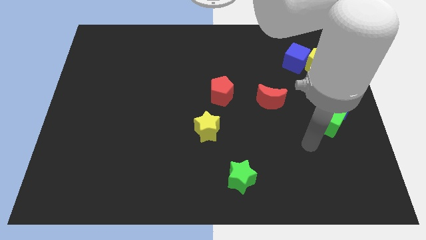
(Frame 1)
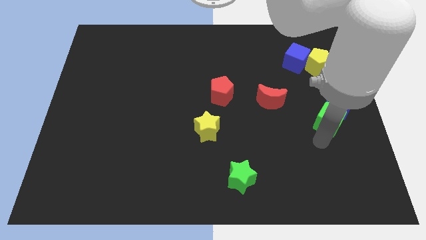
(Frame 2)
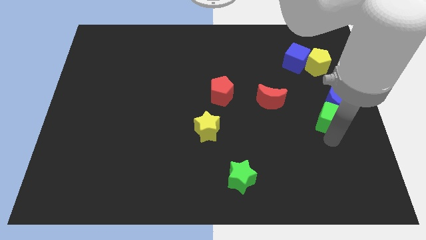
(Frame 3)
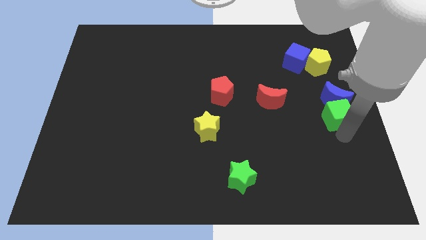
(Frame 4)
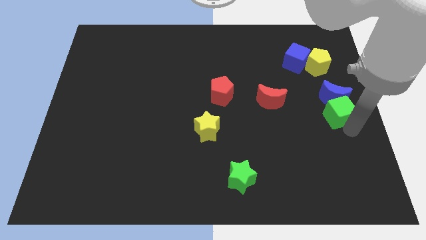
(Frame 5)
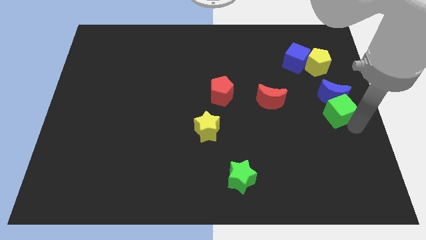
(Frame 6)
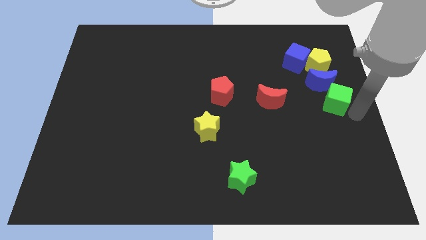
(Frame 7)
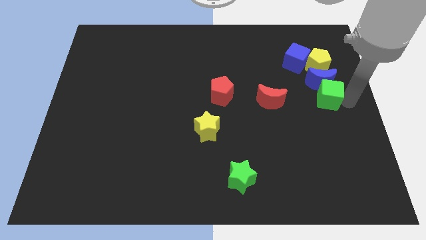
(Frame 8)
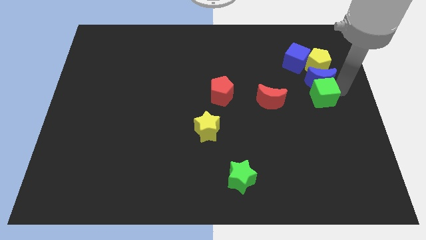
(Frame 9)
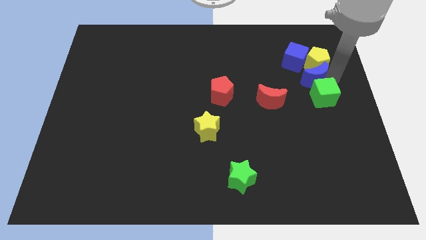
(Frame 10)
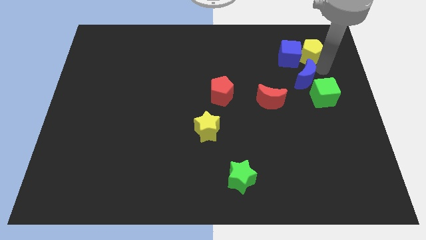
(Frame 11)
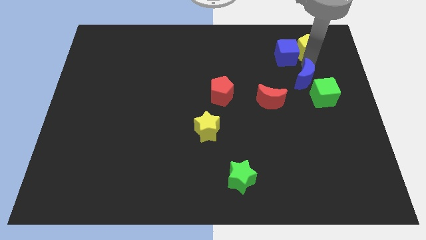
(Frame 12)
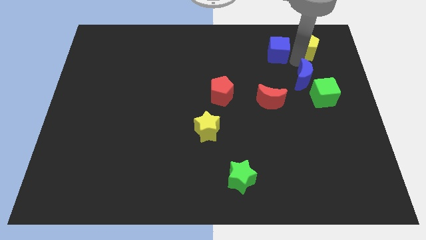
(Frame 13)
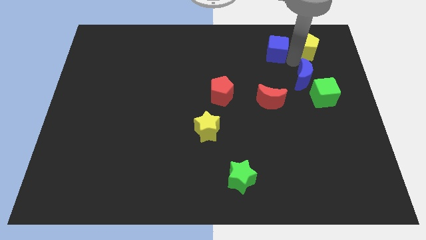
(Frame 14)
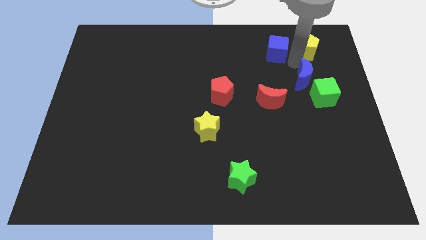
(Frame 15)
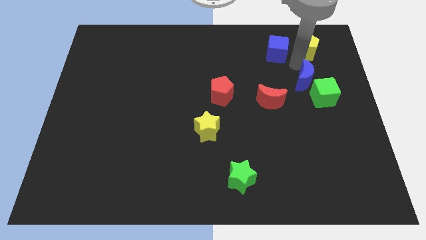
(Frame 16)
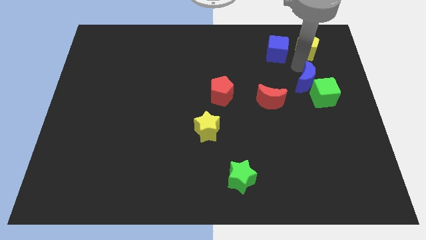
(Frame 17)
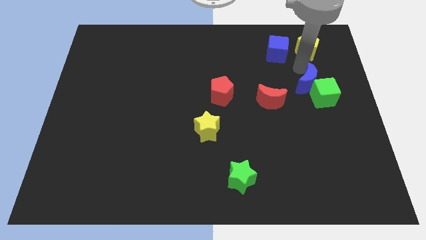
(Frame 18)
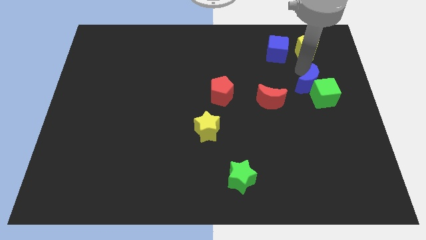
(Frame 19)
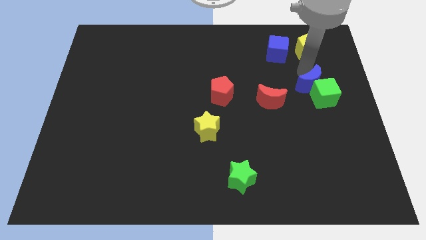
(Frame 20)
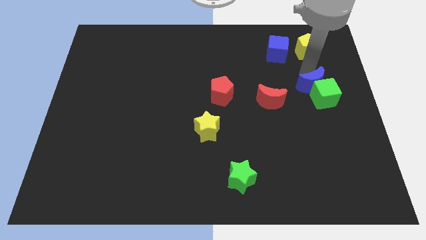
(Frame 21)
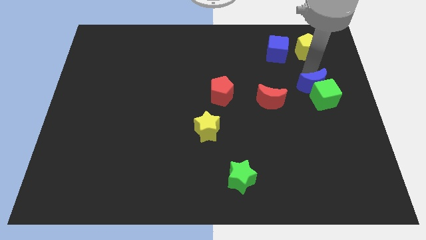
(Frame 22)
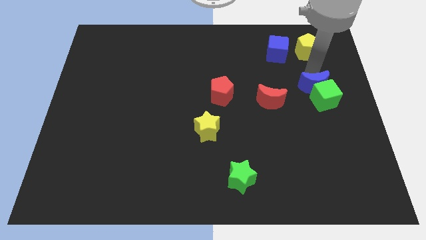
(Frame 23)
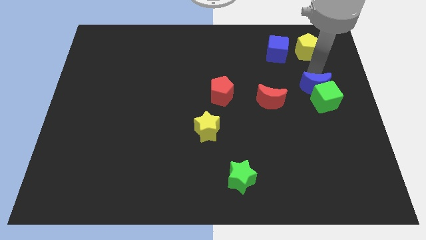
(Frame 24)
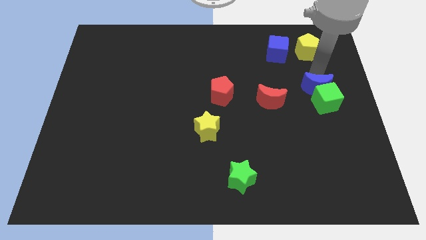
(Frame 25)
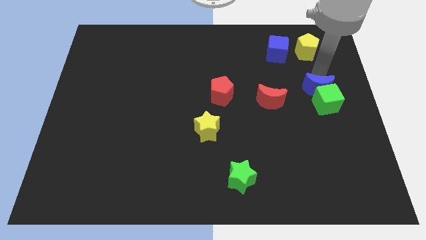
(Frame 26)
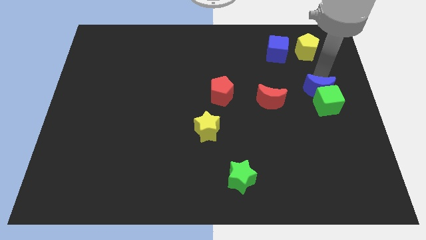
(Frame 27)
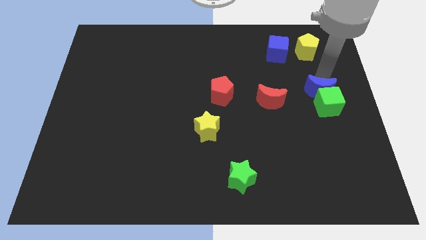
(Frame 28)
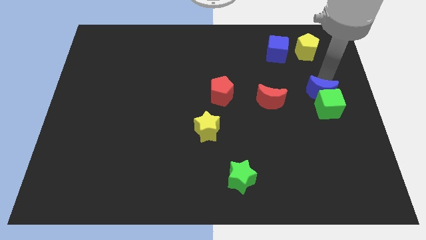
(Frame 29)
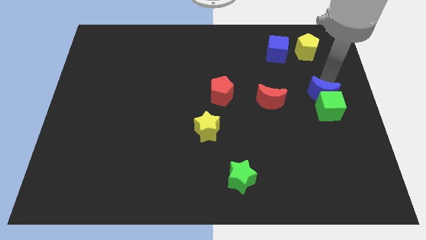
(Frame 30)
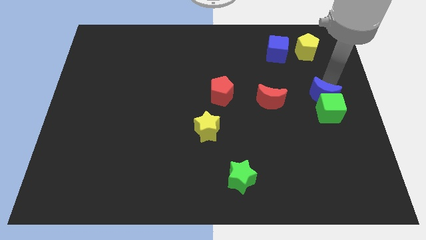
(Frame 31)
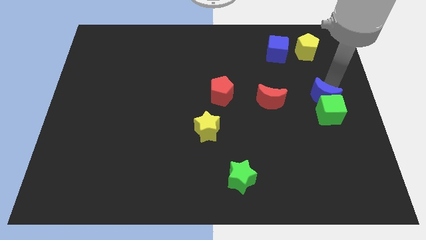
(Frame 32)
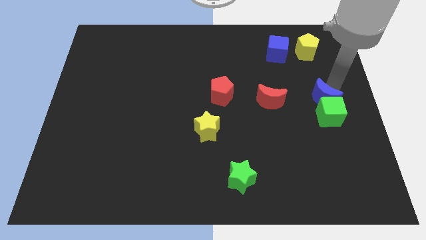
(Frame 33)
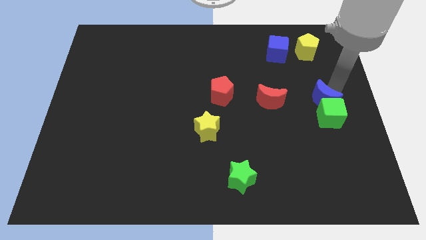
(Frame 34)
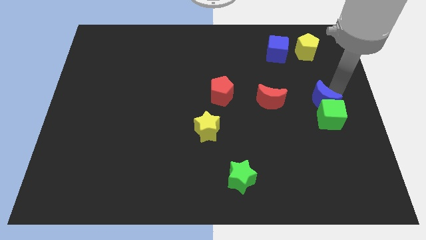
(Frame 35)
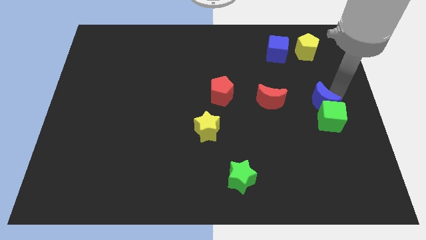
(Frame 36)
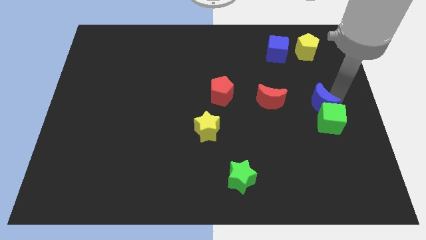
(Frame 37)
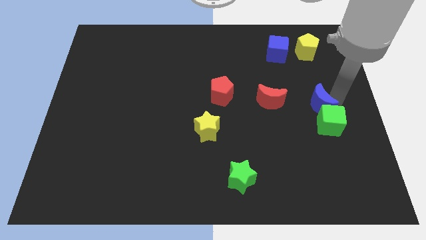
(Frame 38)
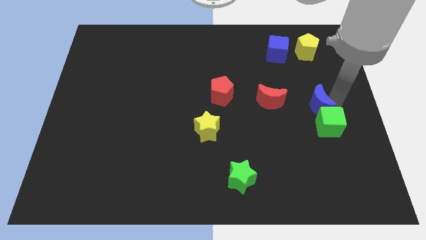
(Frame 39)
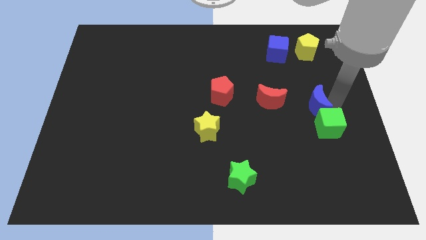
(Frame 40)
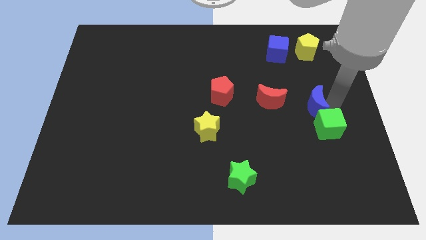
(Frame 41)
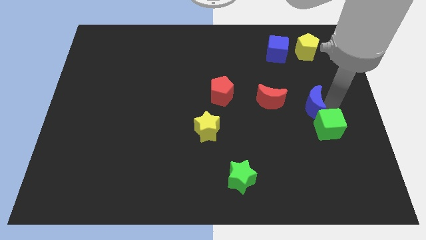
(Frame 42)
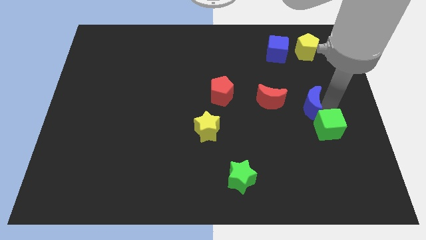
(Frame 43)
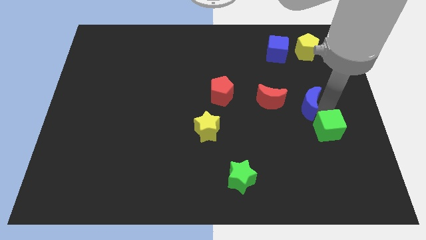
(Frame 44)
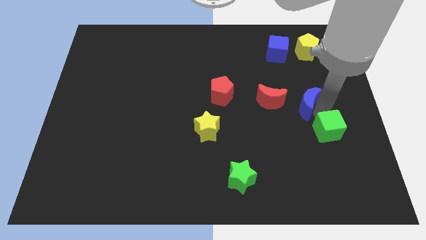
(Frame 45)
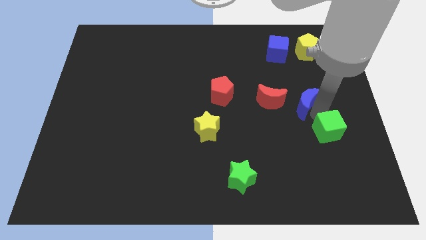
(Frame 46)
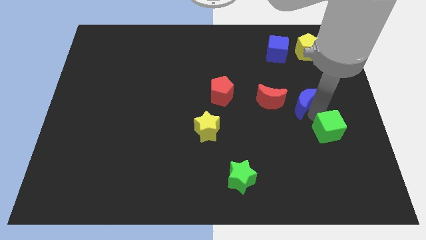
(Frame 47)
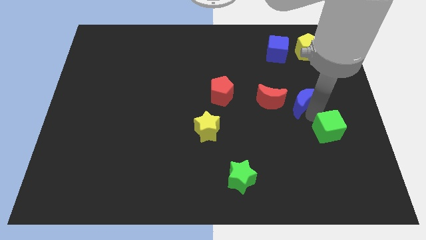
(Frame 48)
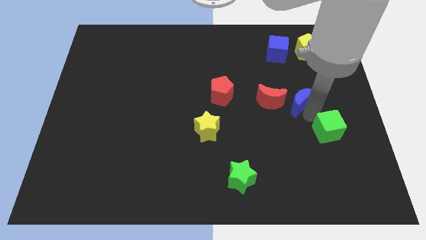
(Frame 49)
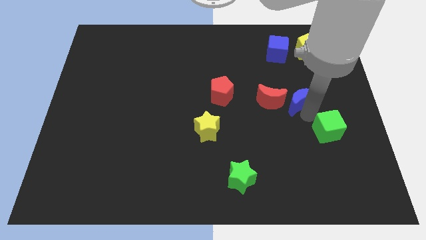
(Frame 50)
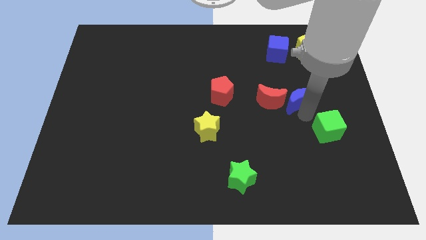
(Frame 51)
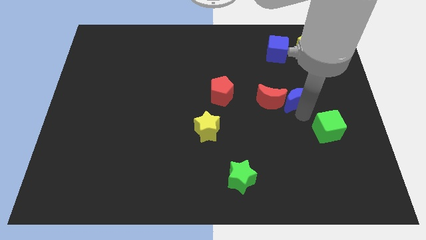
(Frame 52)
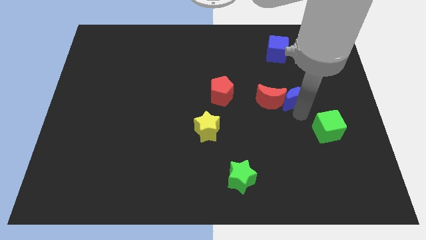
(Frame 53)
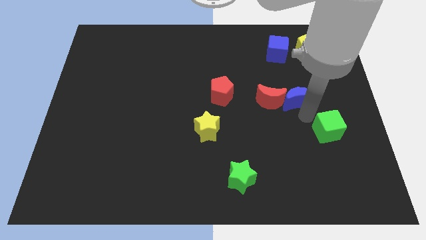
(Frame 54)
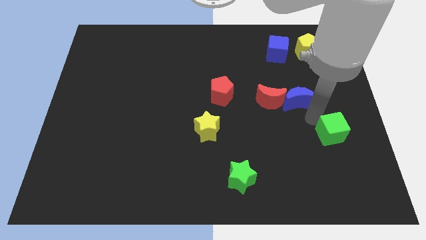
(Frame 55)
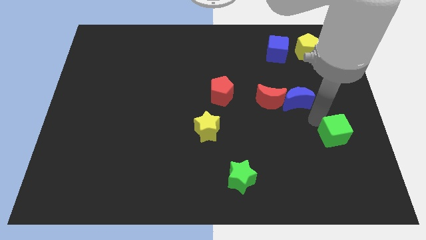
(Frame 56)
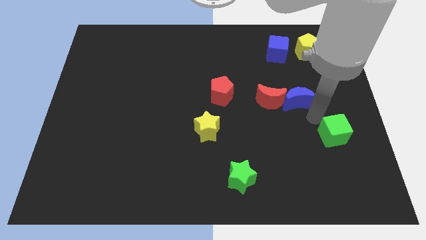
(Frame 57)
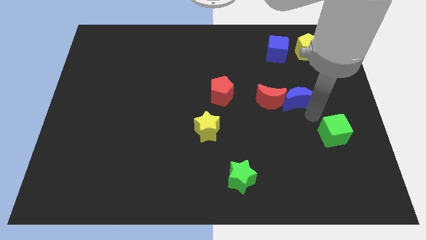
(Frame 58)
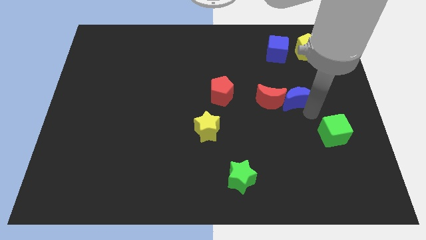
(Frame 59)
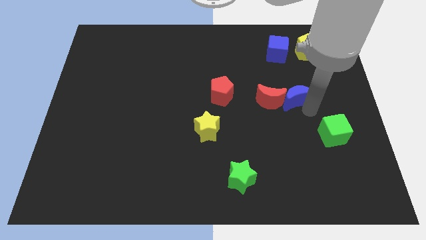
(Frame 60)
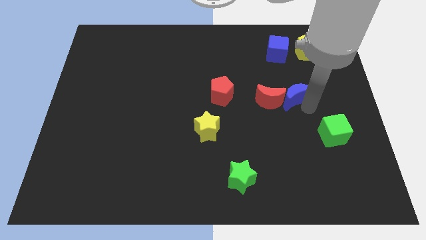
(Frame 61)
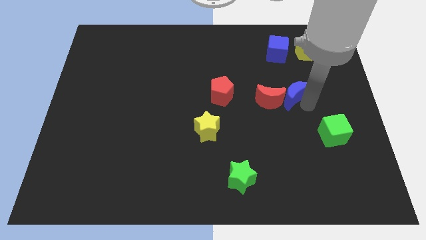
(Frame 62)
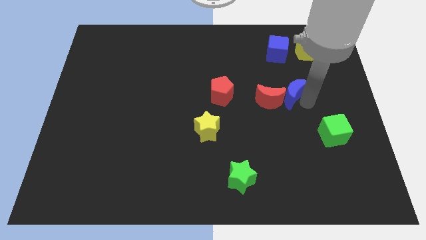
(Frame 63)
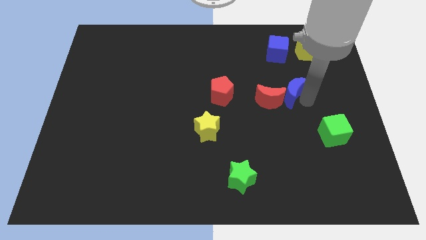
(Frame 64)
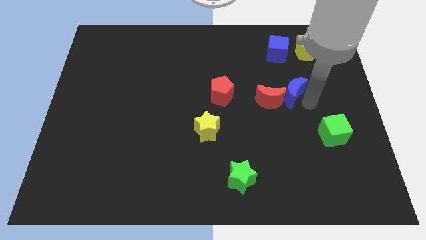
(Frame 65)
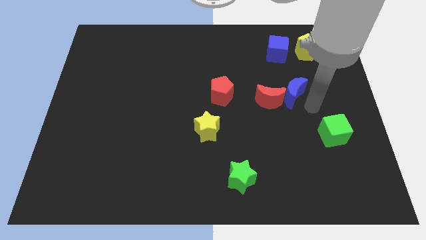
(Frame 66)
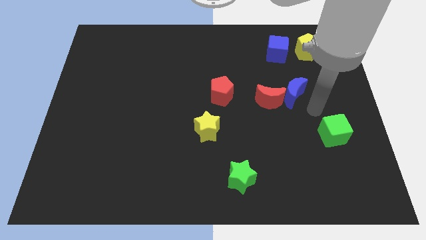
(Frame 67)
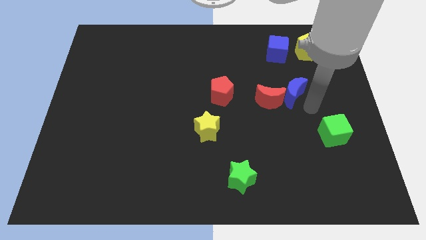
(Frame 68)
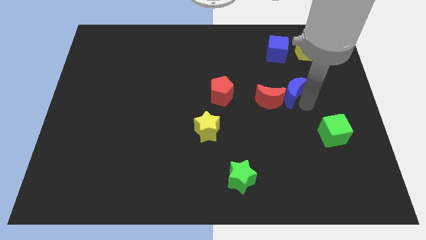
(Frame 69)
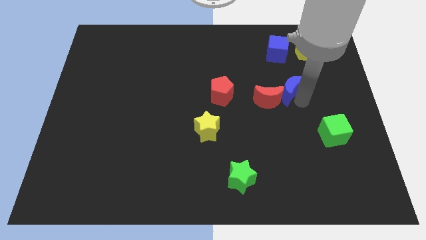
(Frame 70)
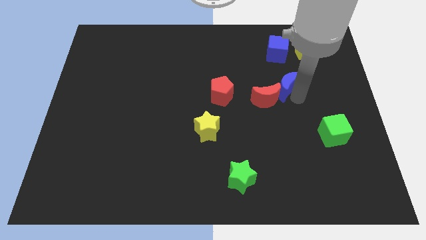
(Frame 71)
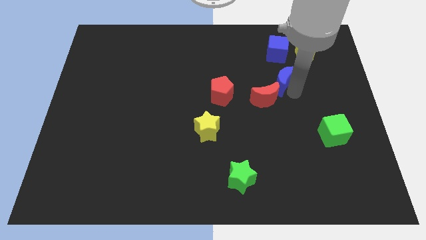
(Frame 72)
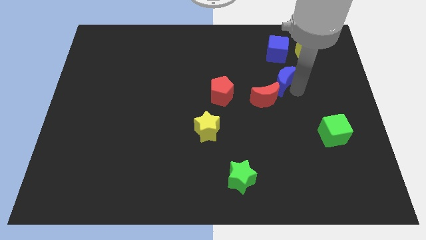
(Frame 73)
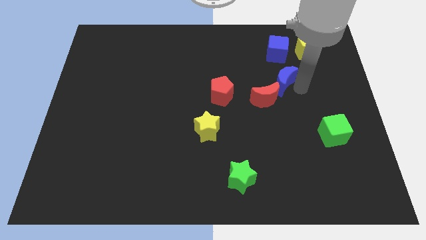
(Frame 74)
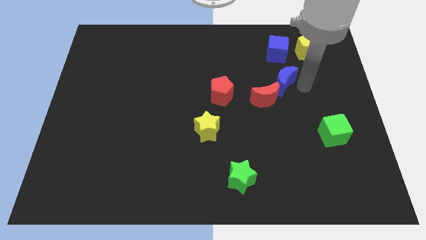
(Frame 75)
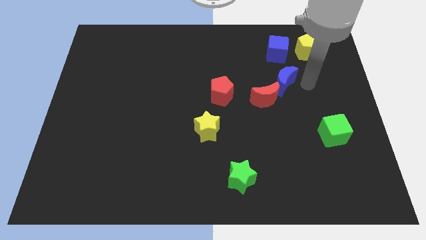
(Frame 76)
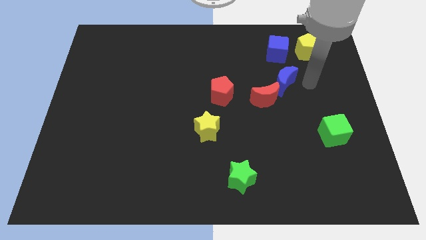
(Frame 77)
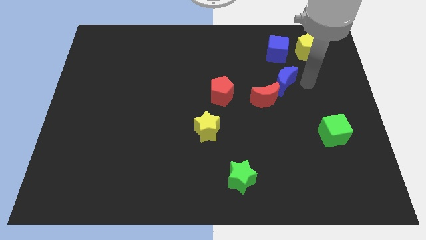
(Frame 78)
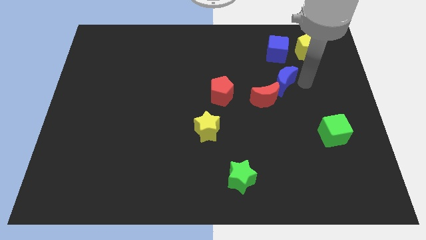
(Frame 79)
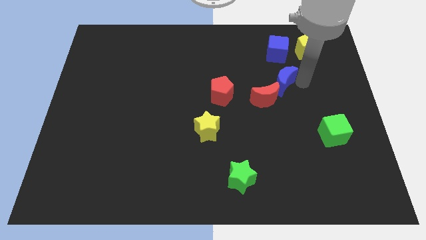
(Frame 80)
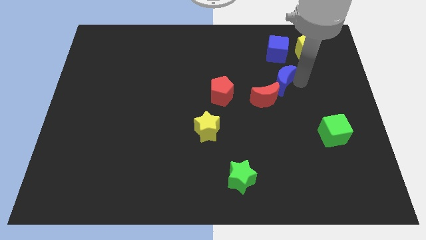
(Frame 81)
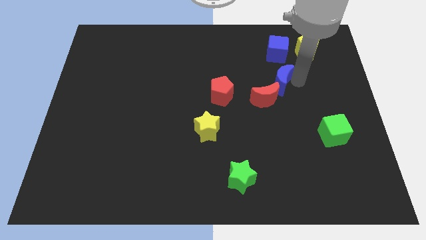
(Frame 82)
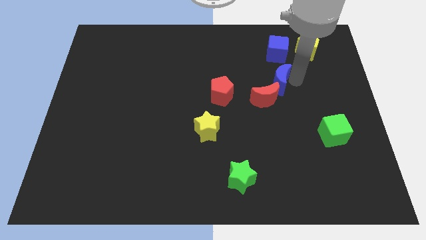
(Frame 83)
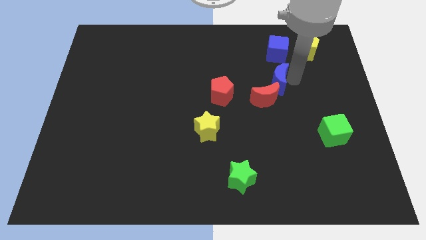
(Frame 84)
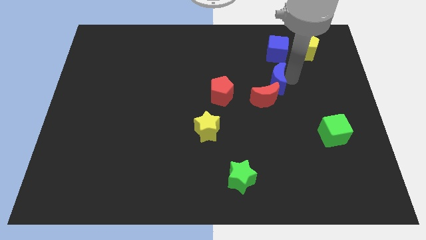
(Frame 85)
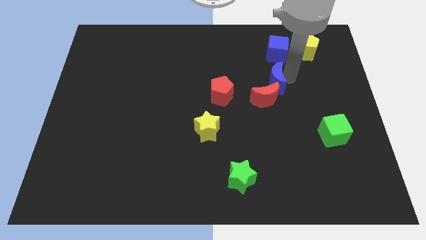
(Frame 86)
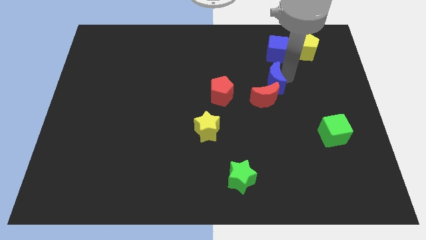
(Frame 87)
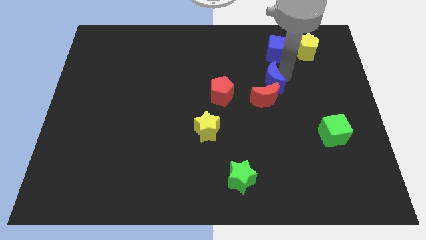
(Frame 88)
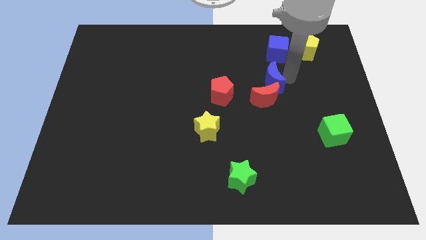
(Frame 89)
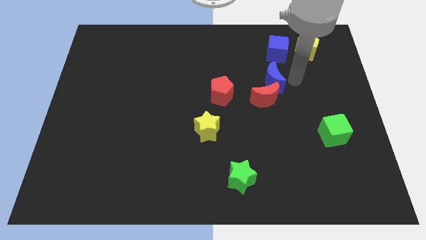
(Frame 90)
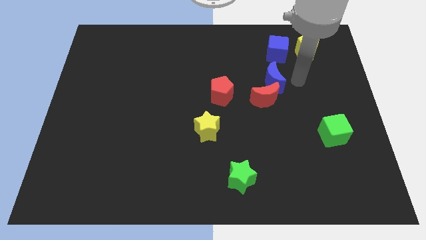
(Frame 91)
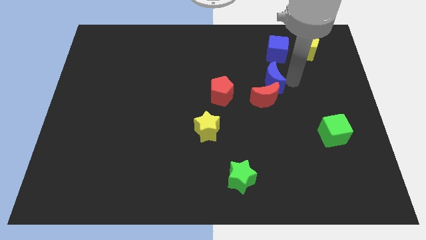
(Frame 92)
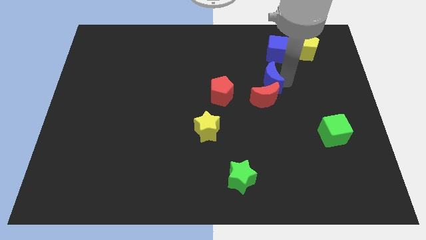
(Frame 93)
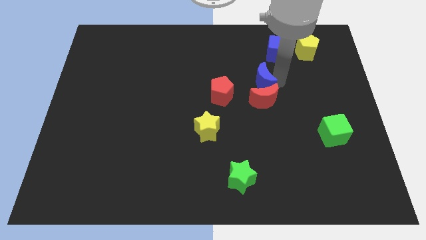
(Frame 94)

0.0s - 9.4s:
move the blue moon to the top left of the red moon
